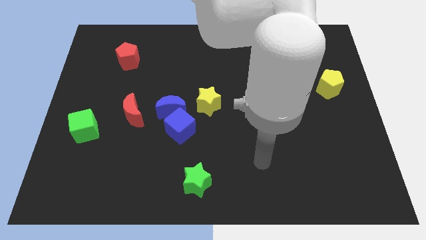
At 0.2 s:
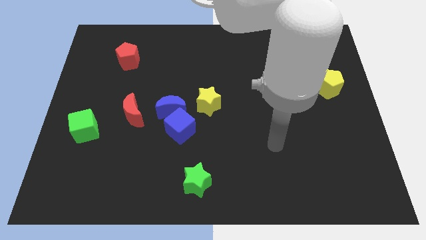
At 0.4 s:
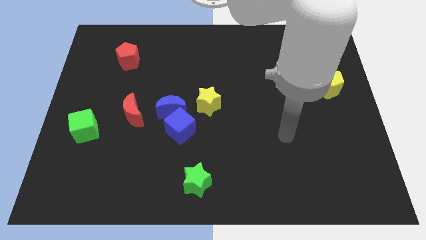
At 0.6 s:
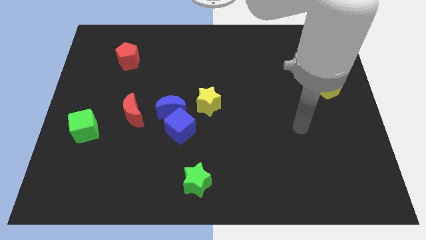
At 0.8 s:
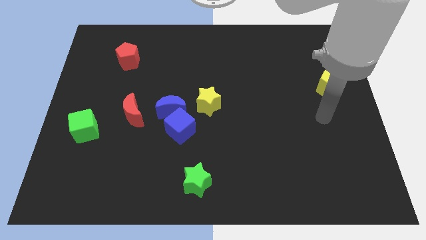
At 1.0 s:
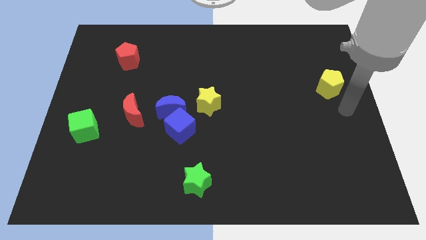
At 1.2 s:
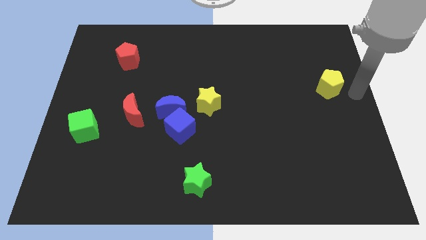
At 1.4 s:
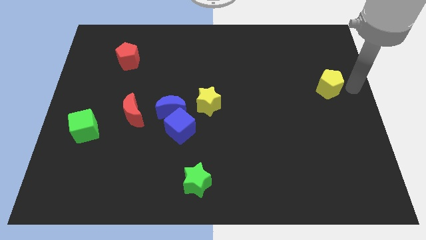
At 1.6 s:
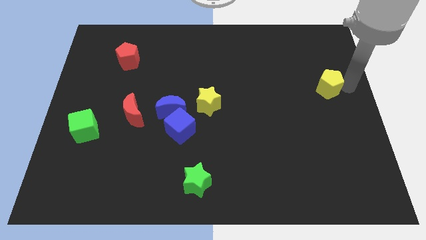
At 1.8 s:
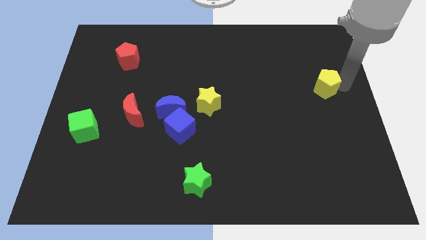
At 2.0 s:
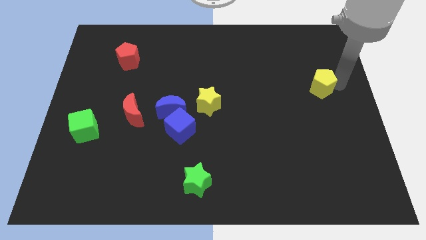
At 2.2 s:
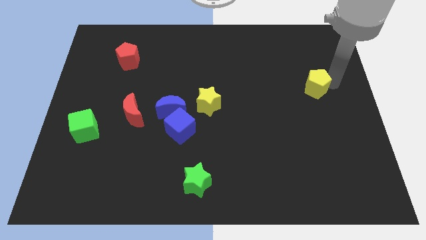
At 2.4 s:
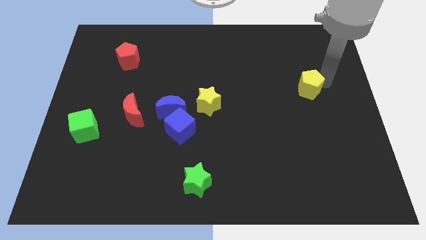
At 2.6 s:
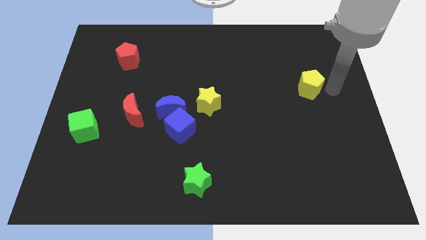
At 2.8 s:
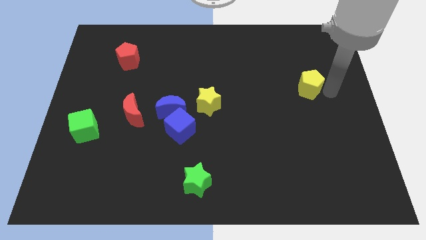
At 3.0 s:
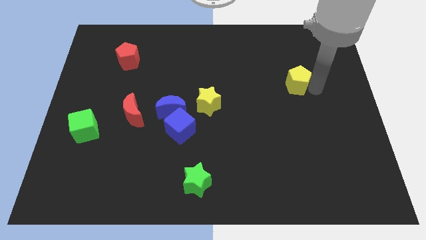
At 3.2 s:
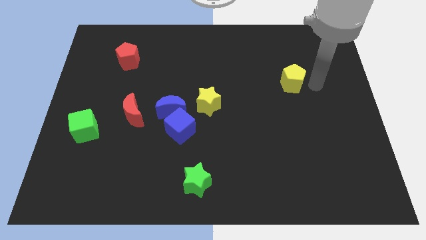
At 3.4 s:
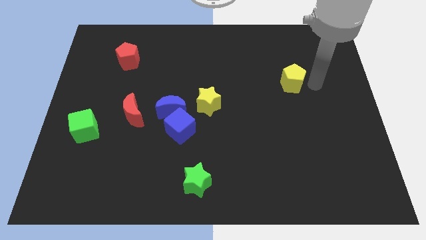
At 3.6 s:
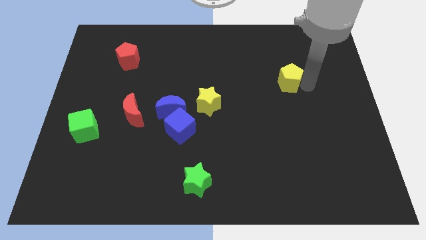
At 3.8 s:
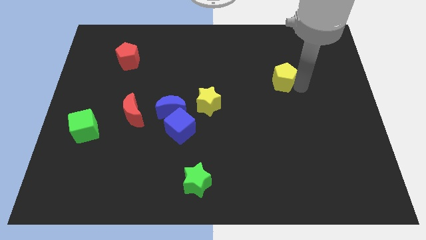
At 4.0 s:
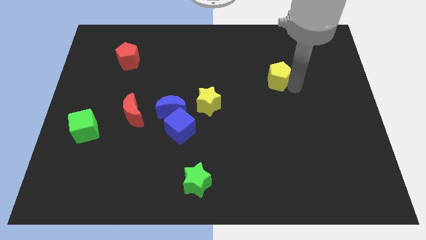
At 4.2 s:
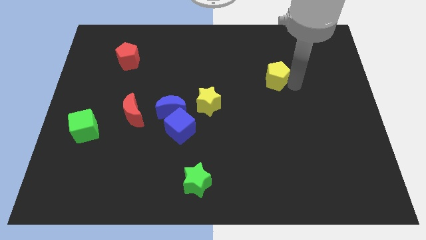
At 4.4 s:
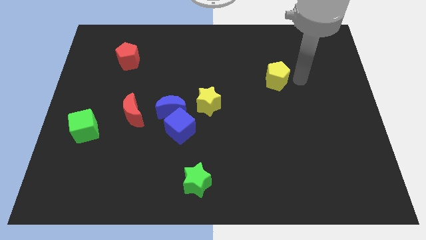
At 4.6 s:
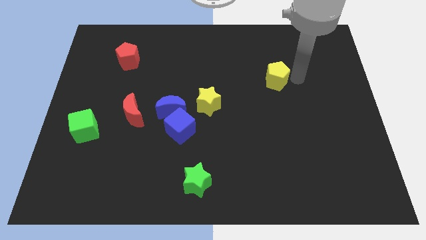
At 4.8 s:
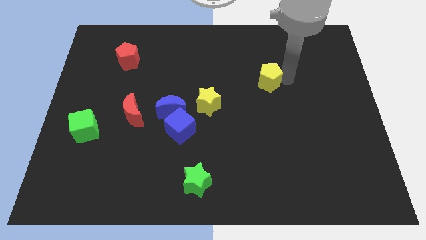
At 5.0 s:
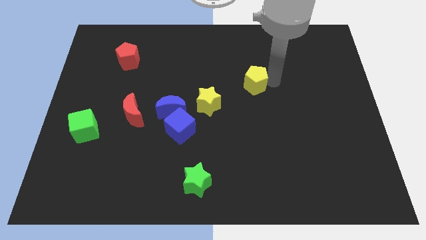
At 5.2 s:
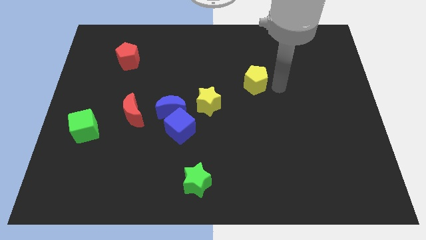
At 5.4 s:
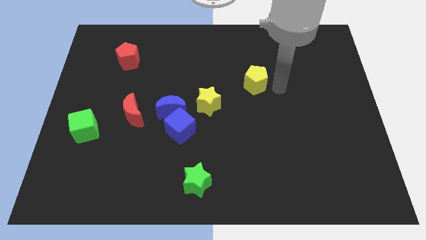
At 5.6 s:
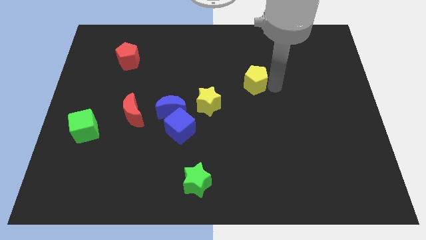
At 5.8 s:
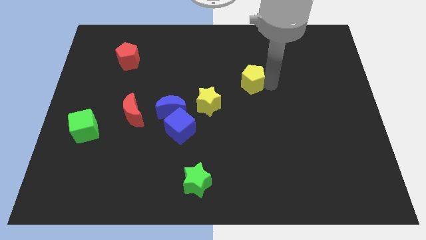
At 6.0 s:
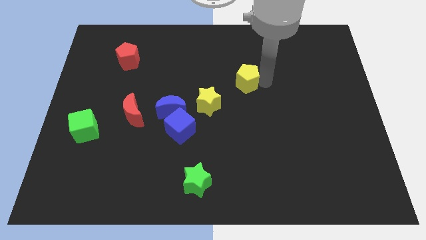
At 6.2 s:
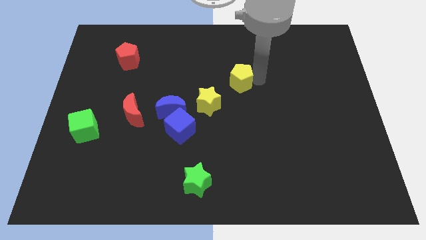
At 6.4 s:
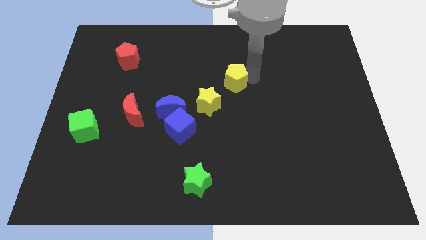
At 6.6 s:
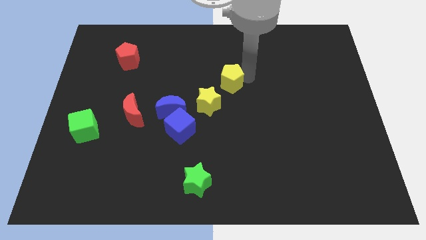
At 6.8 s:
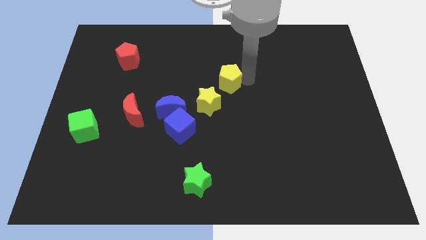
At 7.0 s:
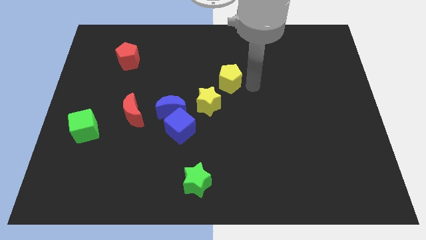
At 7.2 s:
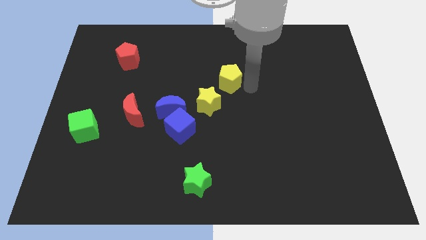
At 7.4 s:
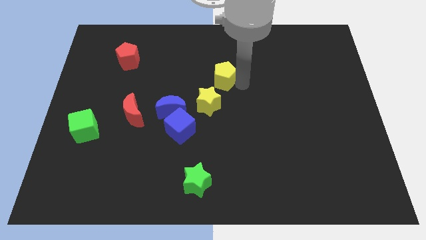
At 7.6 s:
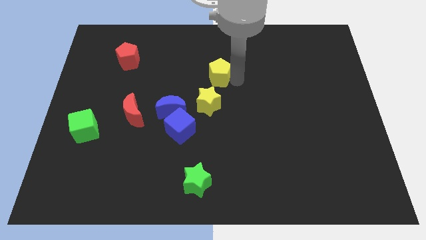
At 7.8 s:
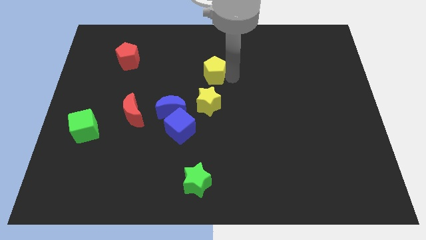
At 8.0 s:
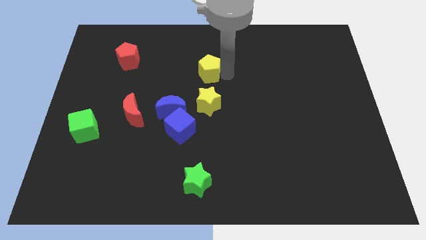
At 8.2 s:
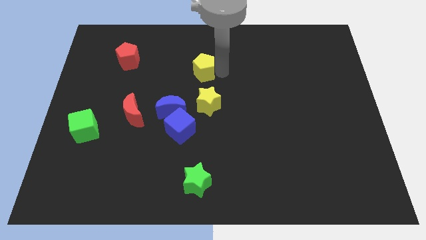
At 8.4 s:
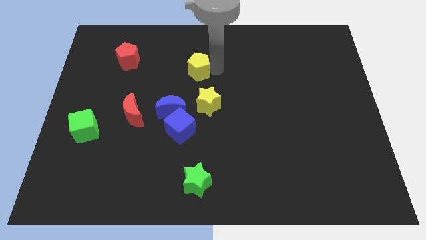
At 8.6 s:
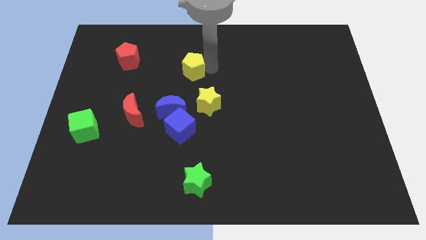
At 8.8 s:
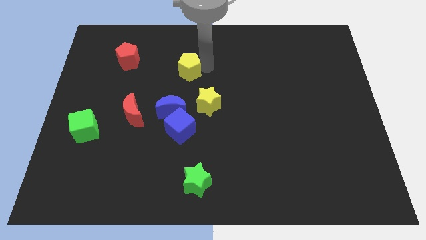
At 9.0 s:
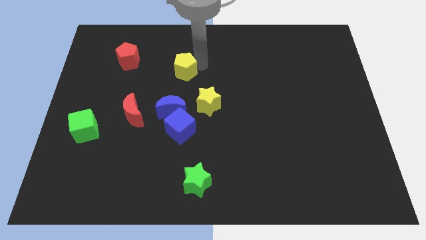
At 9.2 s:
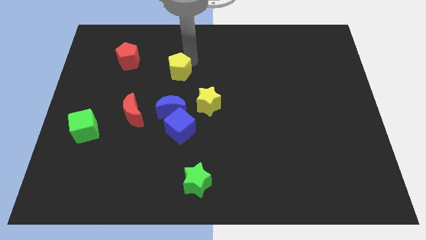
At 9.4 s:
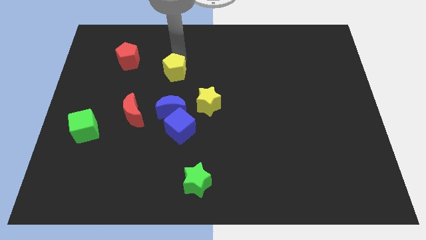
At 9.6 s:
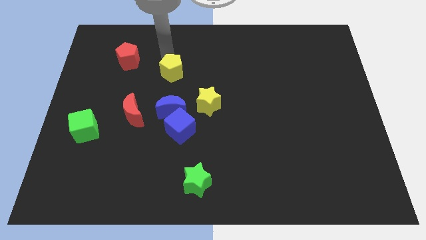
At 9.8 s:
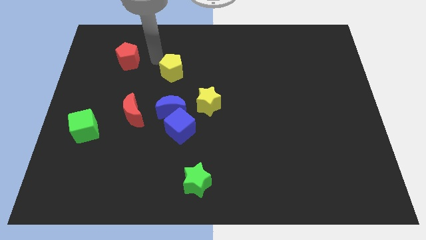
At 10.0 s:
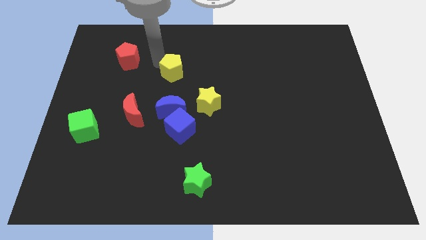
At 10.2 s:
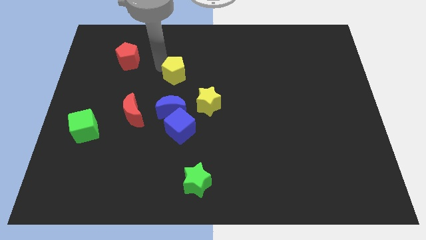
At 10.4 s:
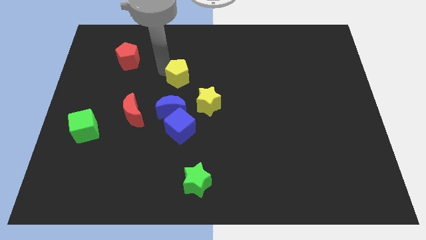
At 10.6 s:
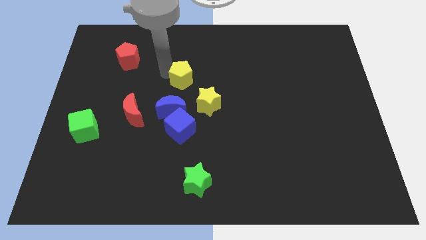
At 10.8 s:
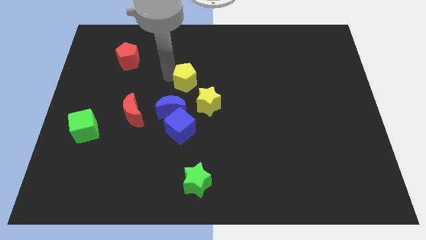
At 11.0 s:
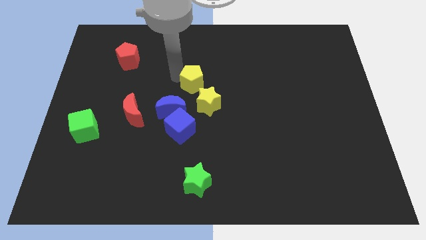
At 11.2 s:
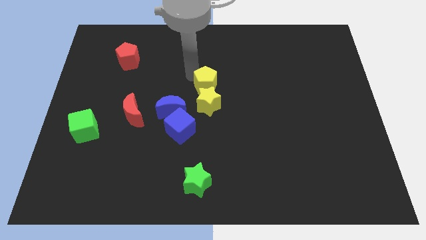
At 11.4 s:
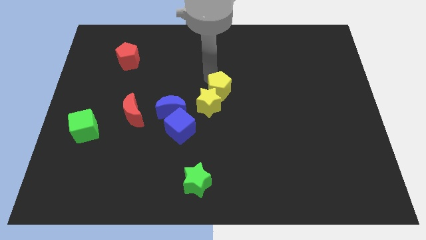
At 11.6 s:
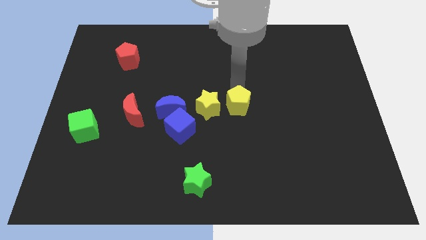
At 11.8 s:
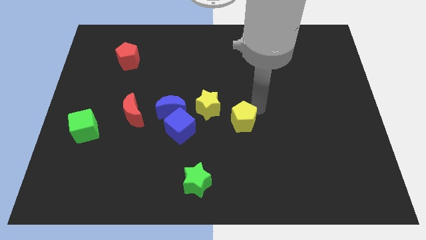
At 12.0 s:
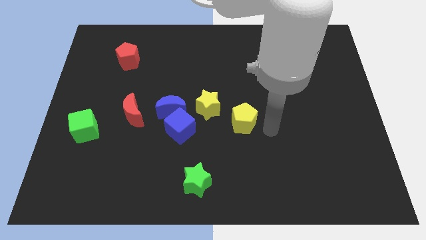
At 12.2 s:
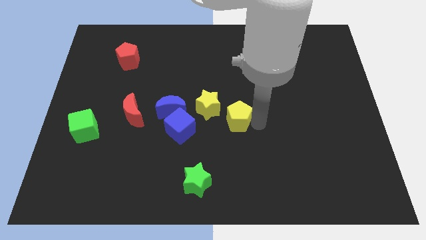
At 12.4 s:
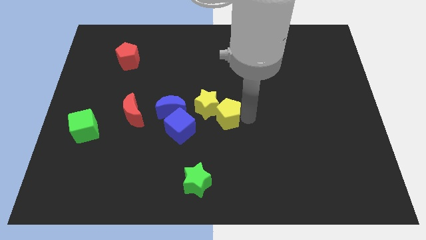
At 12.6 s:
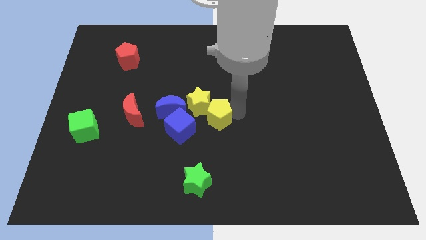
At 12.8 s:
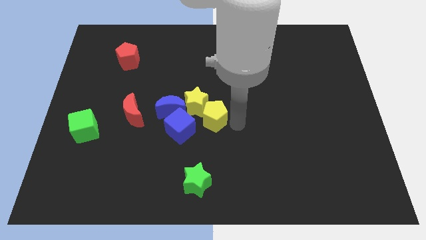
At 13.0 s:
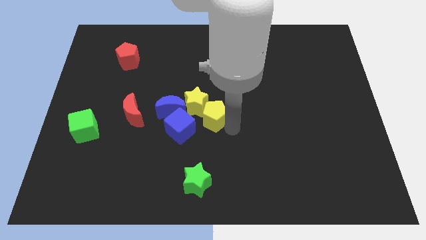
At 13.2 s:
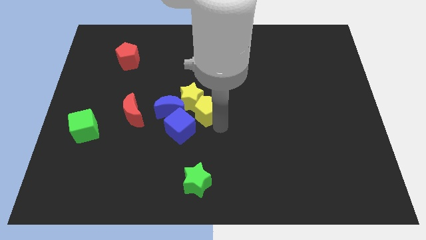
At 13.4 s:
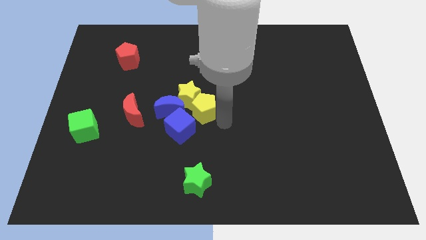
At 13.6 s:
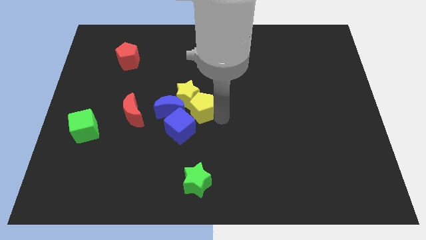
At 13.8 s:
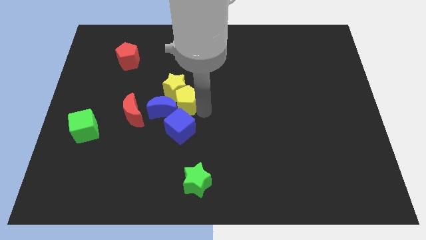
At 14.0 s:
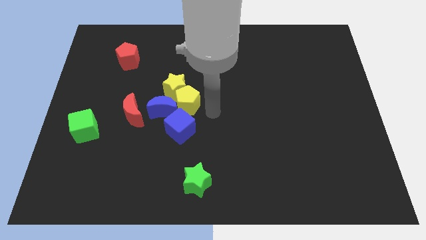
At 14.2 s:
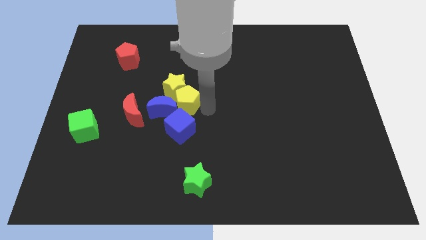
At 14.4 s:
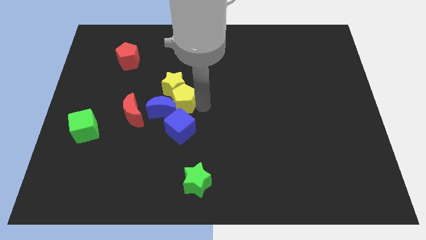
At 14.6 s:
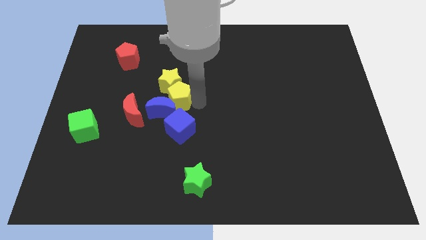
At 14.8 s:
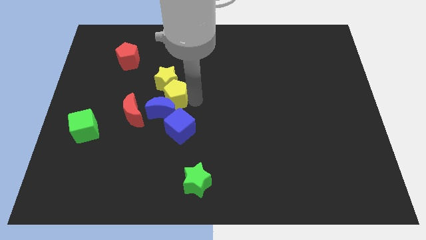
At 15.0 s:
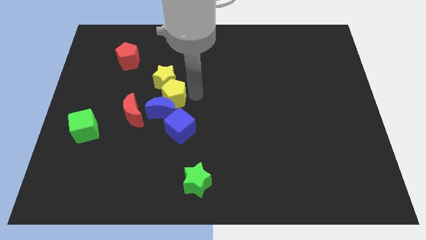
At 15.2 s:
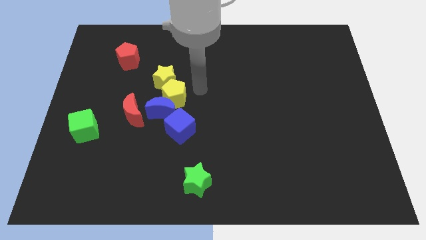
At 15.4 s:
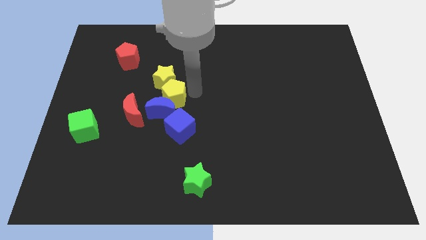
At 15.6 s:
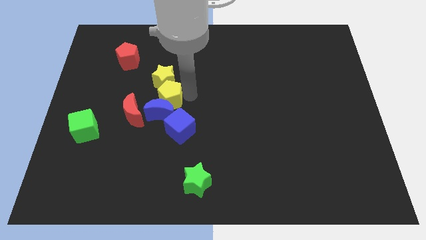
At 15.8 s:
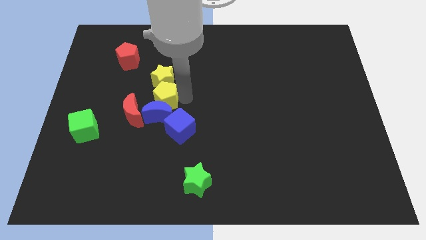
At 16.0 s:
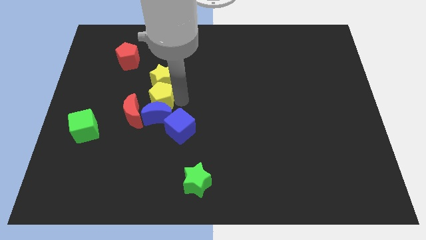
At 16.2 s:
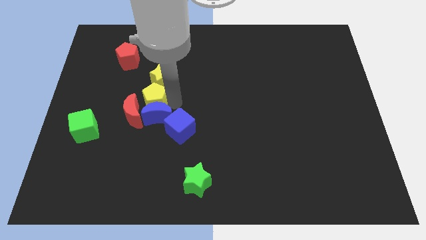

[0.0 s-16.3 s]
move the yellow pentagon close to the red moon
